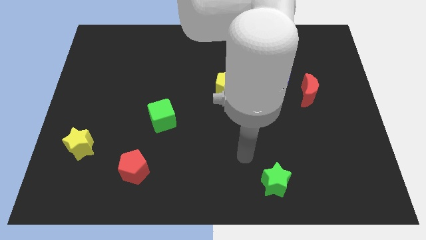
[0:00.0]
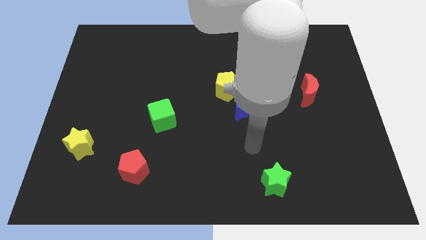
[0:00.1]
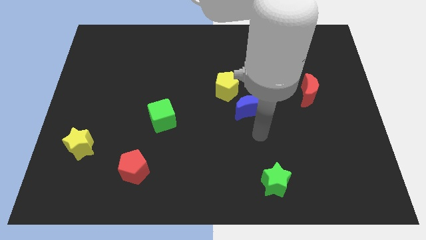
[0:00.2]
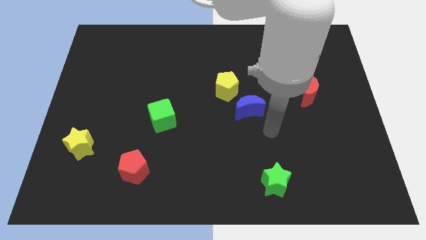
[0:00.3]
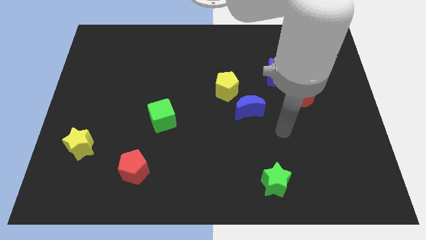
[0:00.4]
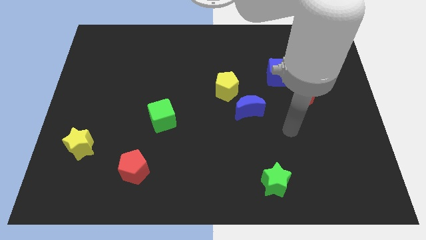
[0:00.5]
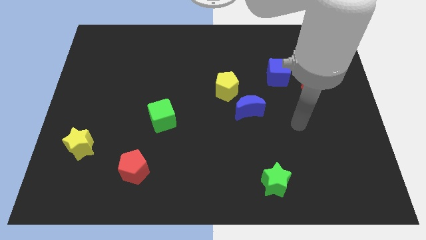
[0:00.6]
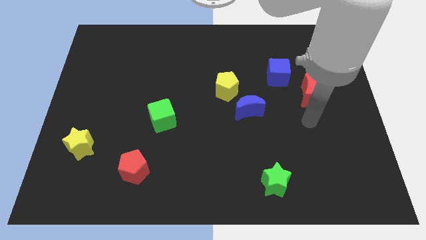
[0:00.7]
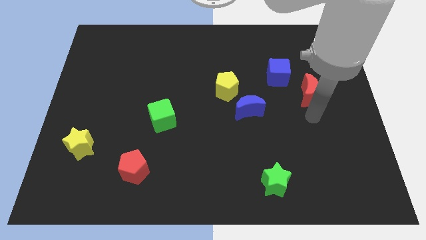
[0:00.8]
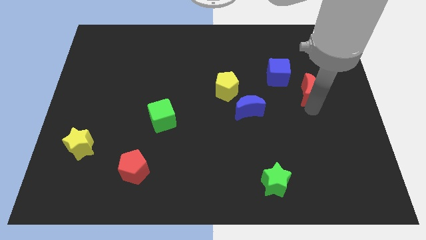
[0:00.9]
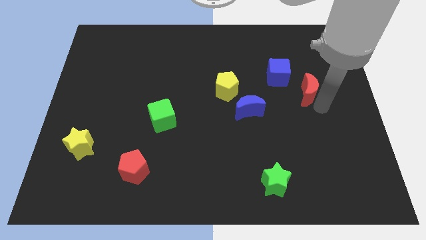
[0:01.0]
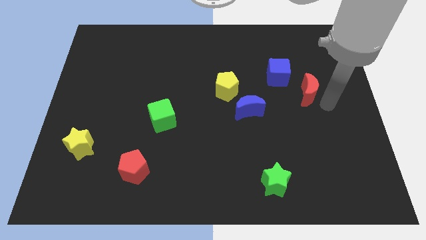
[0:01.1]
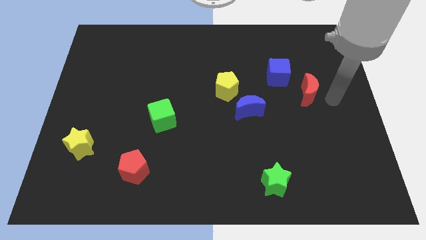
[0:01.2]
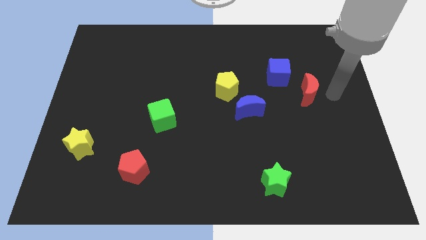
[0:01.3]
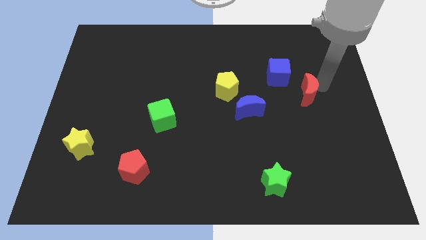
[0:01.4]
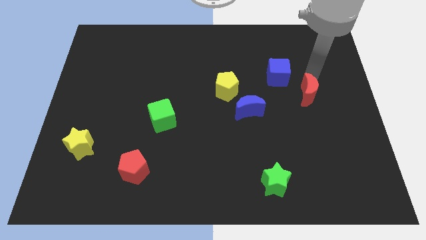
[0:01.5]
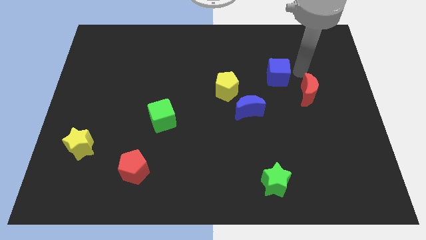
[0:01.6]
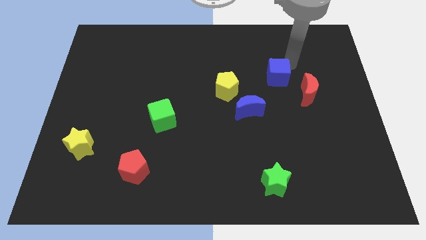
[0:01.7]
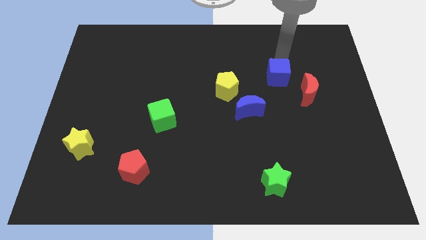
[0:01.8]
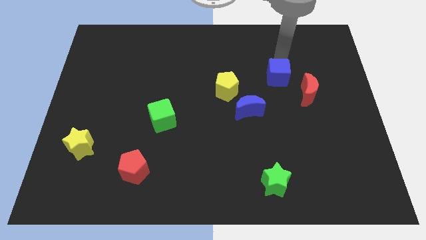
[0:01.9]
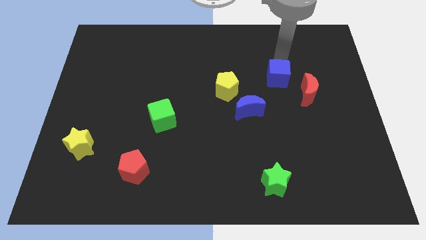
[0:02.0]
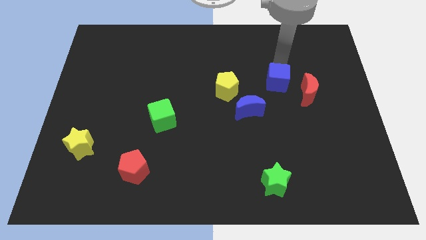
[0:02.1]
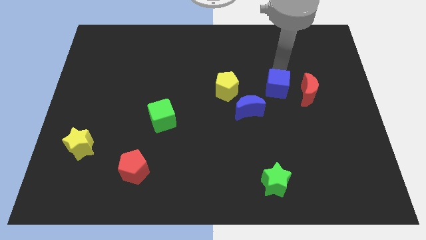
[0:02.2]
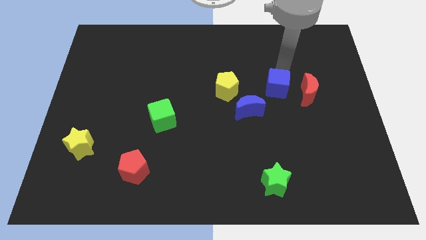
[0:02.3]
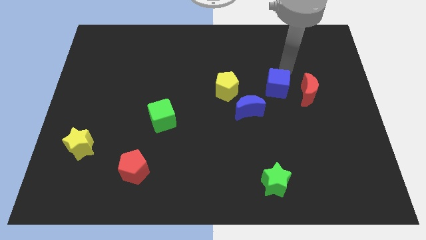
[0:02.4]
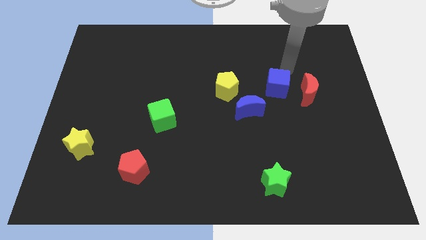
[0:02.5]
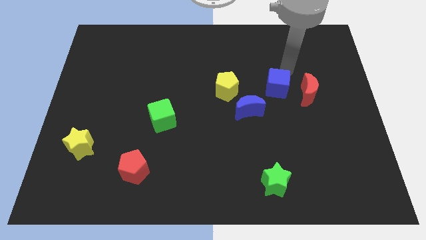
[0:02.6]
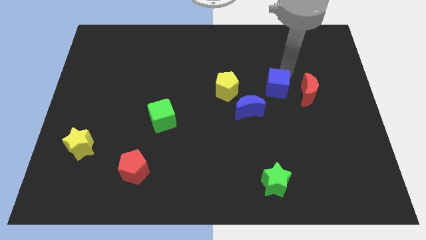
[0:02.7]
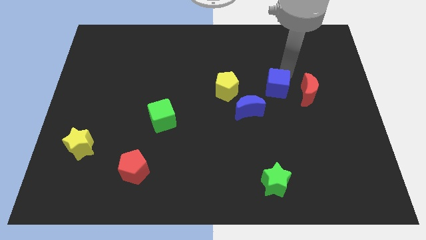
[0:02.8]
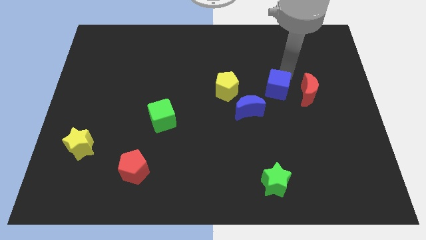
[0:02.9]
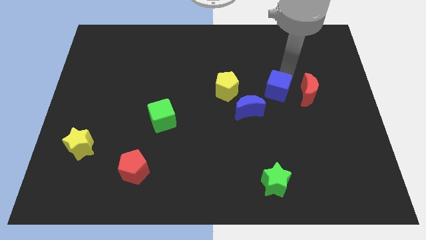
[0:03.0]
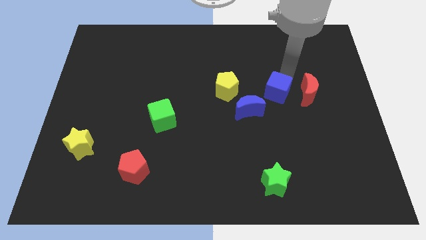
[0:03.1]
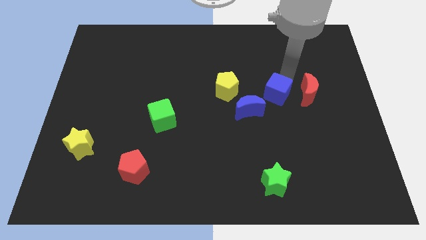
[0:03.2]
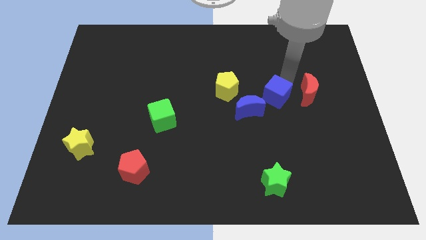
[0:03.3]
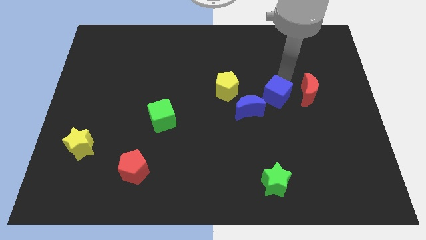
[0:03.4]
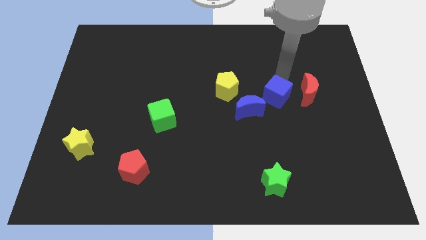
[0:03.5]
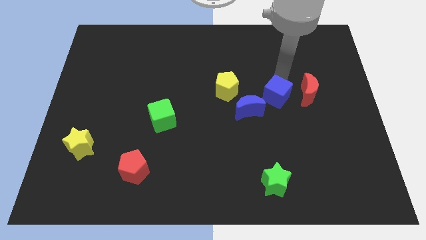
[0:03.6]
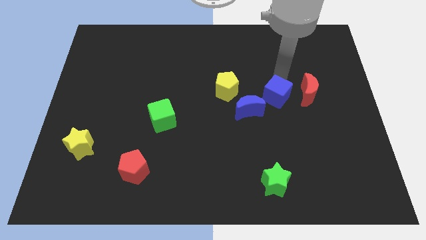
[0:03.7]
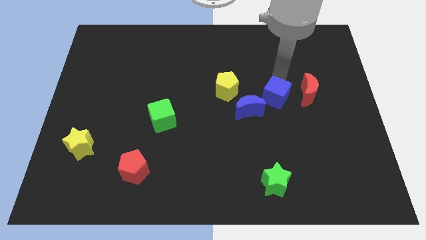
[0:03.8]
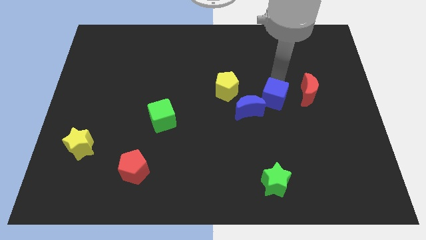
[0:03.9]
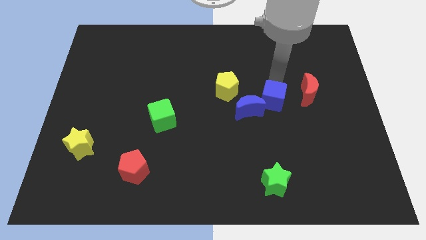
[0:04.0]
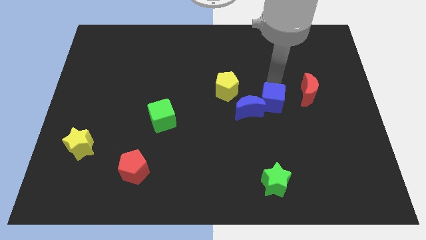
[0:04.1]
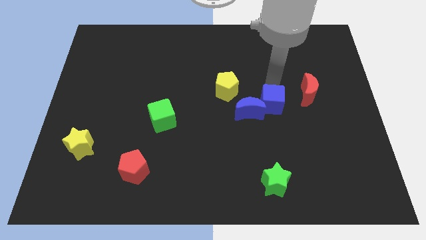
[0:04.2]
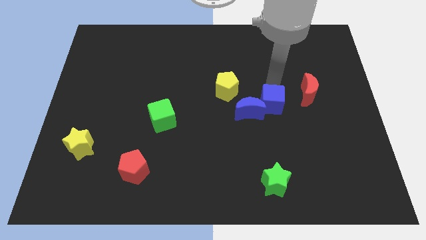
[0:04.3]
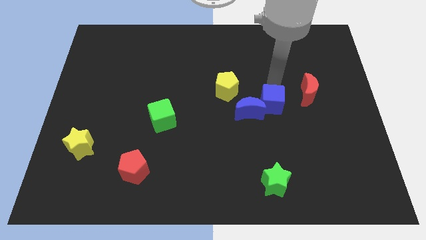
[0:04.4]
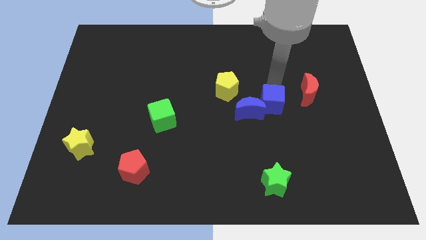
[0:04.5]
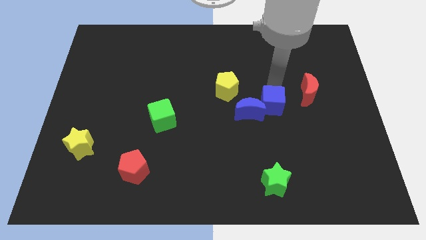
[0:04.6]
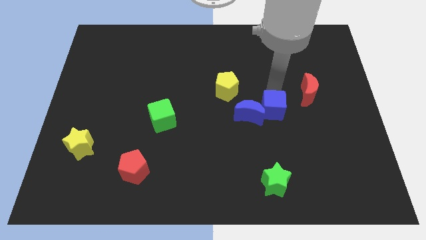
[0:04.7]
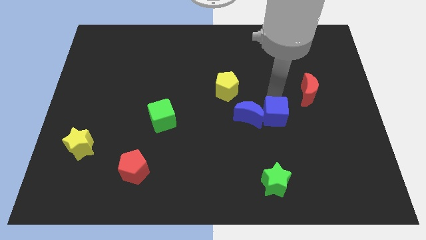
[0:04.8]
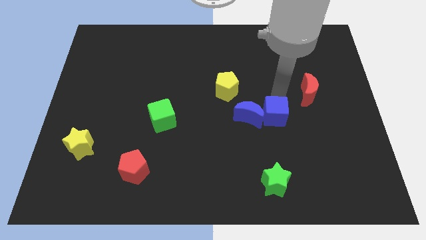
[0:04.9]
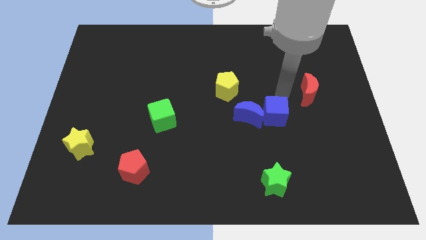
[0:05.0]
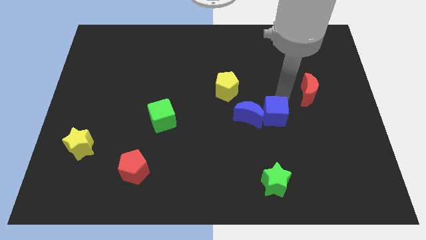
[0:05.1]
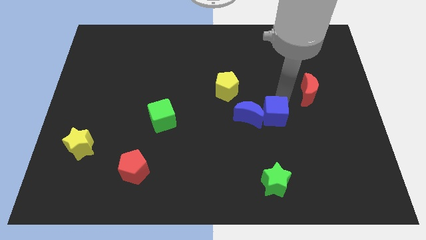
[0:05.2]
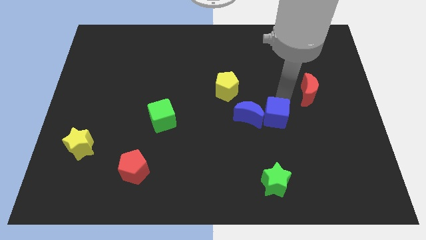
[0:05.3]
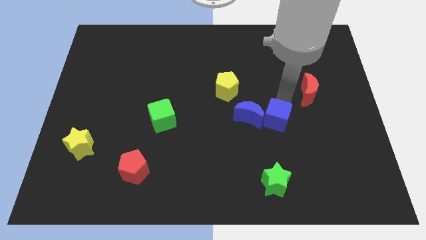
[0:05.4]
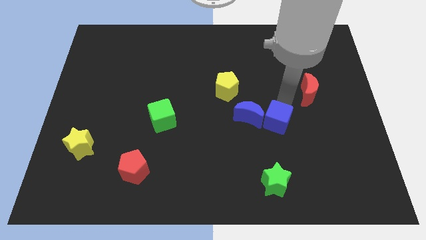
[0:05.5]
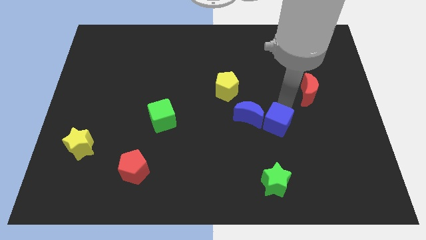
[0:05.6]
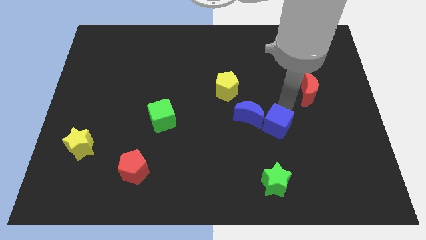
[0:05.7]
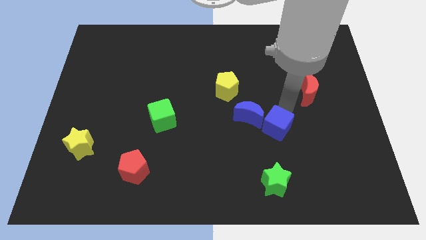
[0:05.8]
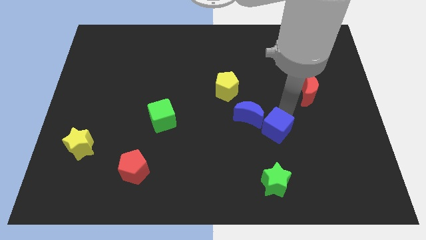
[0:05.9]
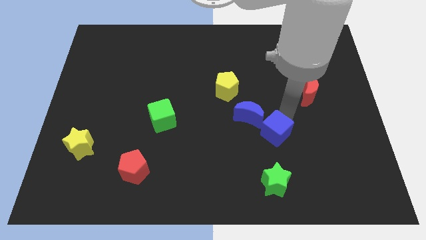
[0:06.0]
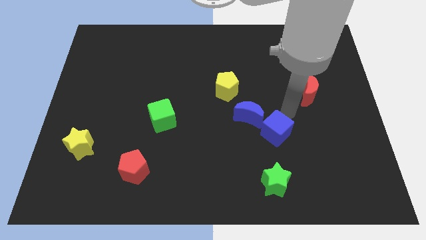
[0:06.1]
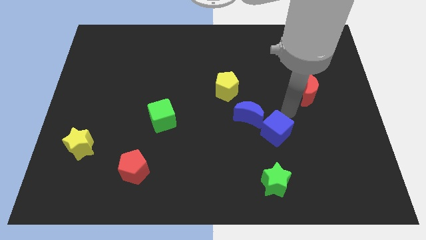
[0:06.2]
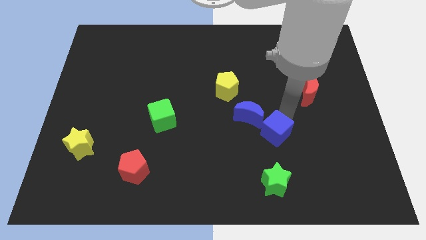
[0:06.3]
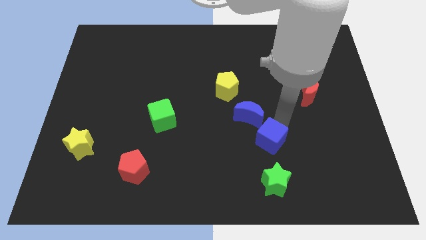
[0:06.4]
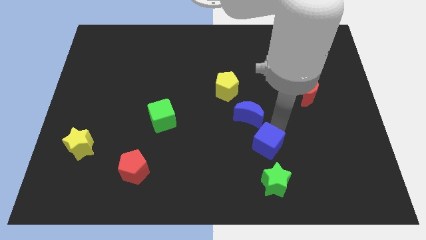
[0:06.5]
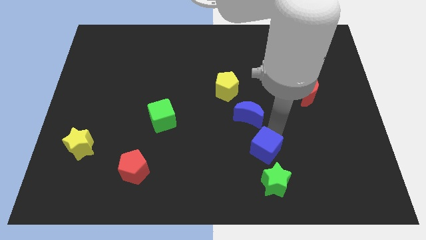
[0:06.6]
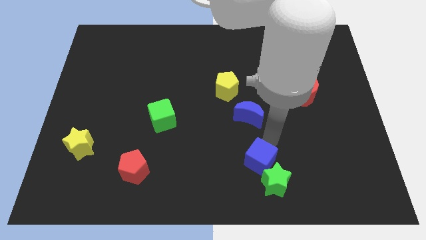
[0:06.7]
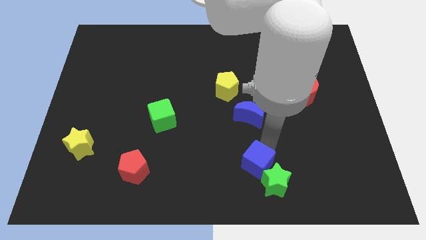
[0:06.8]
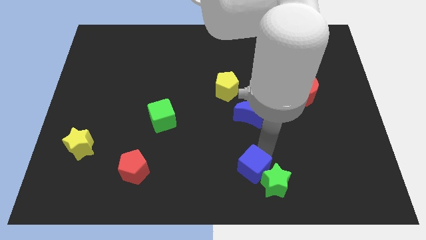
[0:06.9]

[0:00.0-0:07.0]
push the blue cube to the bottom
